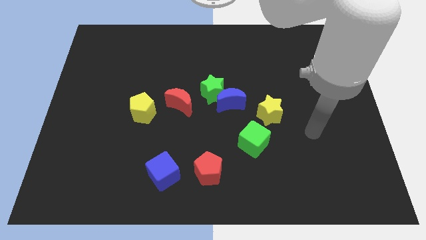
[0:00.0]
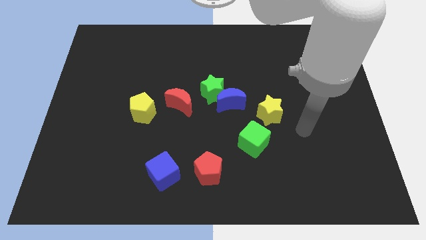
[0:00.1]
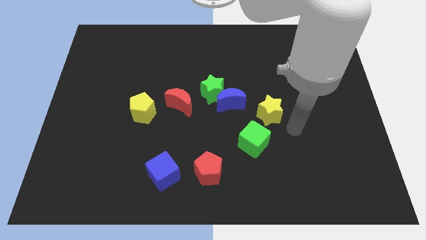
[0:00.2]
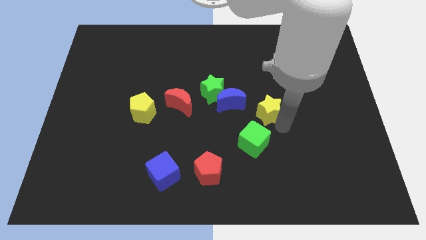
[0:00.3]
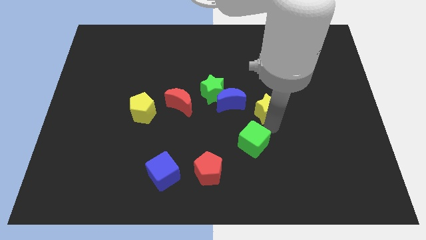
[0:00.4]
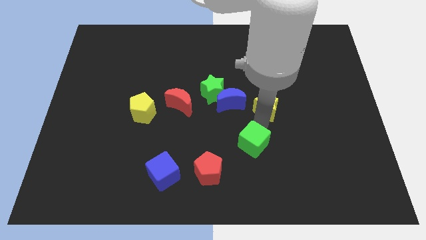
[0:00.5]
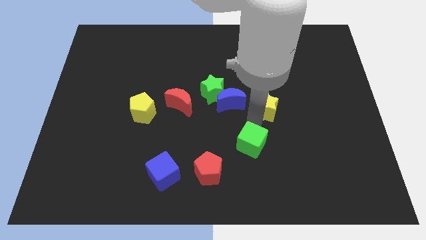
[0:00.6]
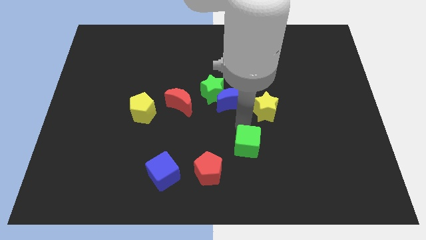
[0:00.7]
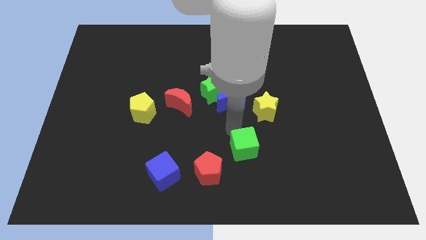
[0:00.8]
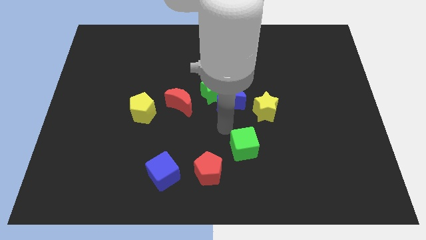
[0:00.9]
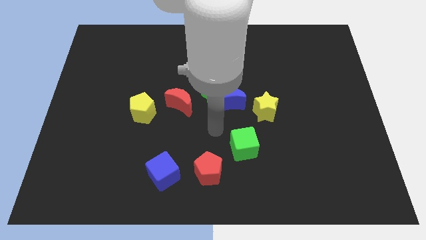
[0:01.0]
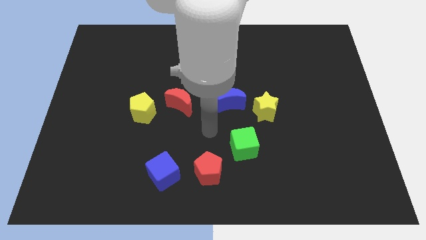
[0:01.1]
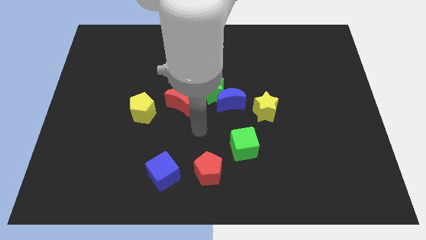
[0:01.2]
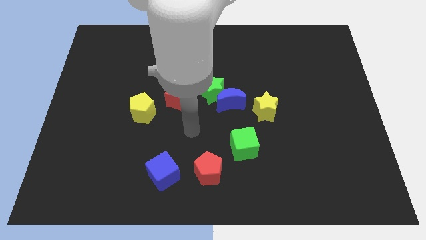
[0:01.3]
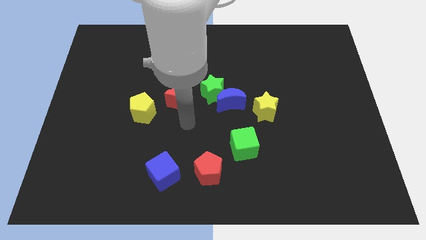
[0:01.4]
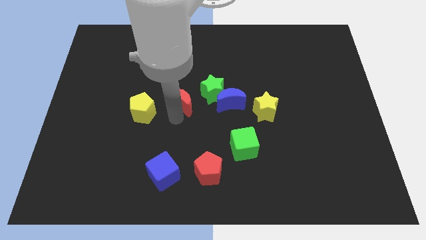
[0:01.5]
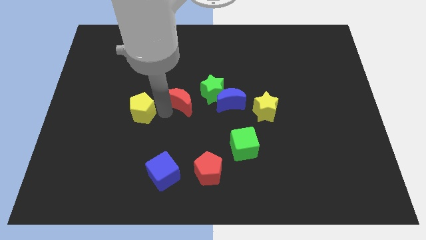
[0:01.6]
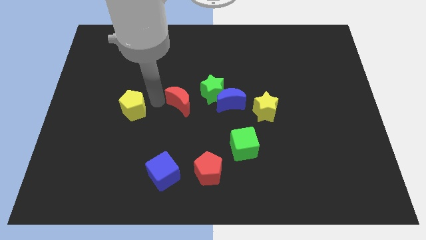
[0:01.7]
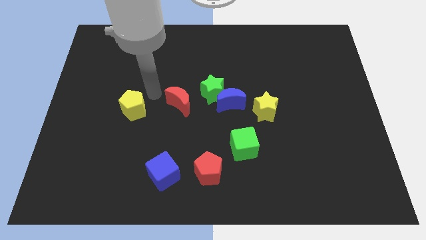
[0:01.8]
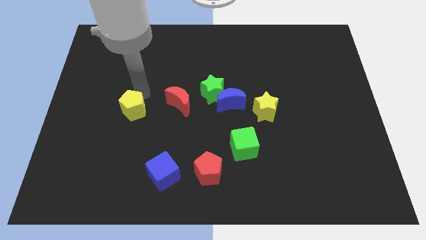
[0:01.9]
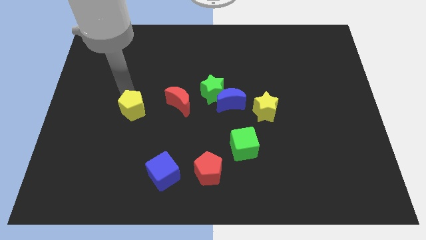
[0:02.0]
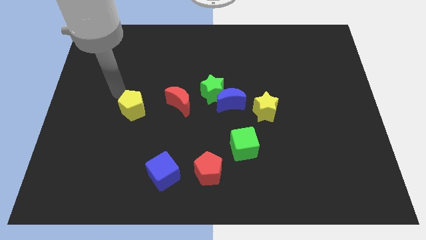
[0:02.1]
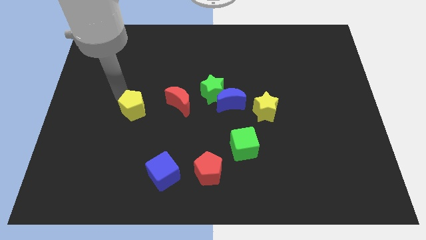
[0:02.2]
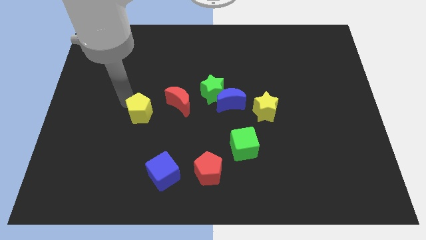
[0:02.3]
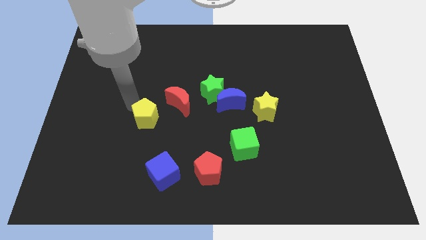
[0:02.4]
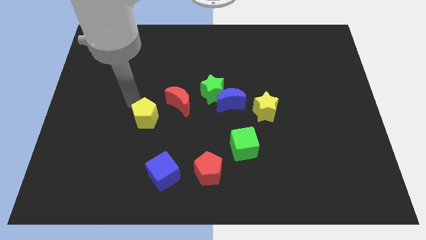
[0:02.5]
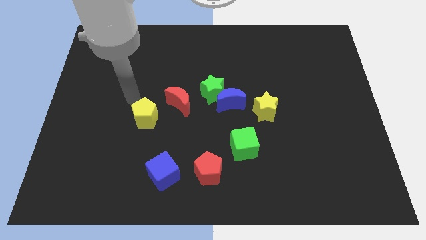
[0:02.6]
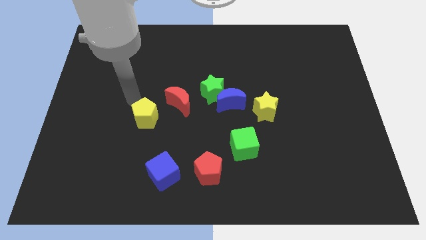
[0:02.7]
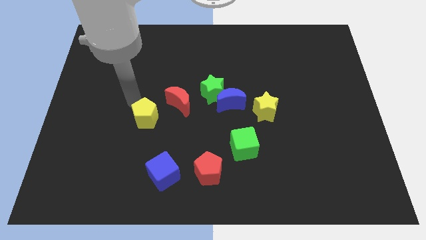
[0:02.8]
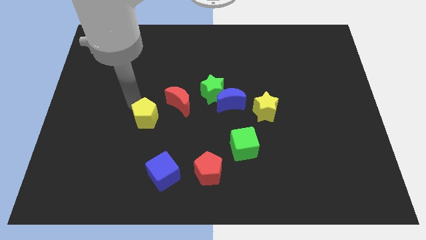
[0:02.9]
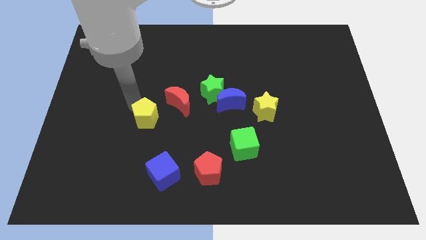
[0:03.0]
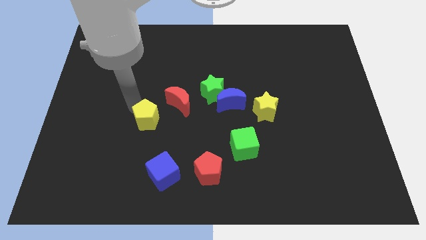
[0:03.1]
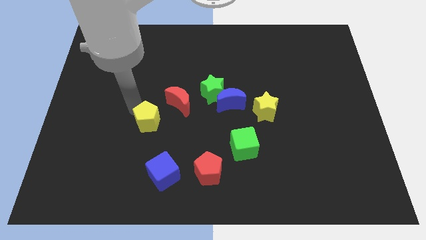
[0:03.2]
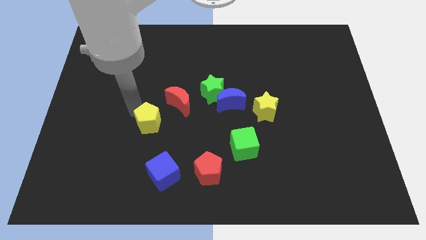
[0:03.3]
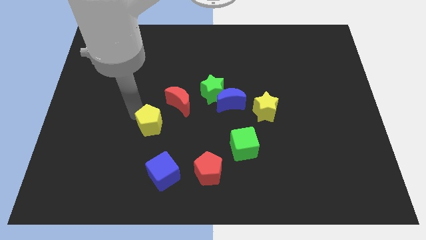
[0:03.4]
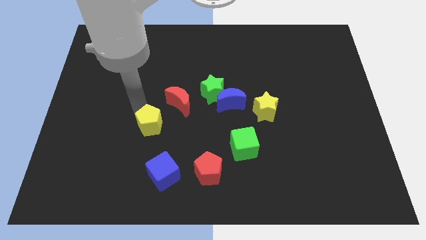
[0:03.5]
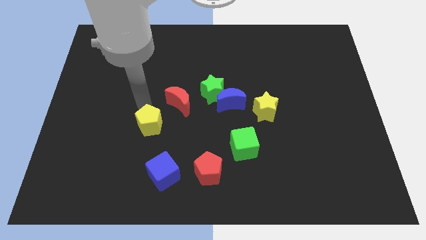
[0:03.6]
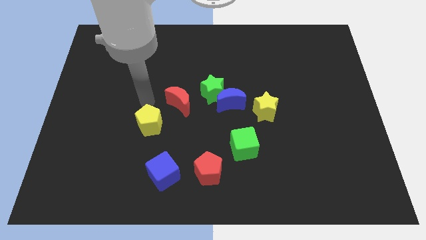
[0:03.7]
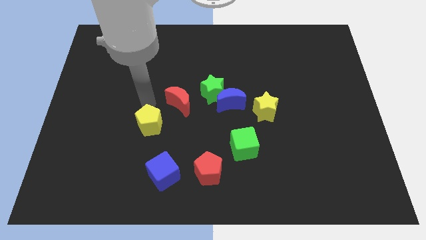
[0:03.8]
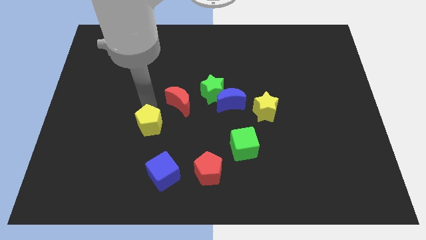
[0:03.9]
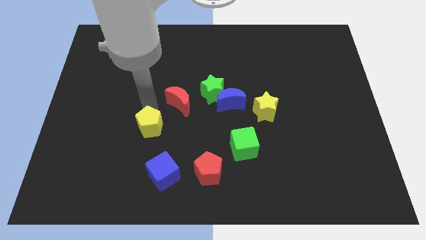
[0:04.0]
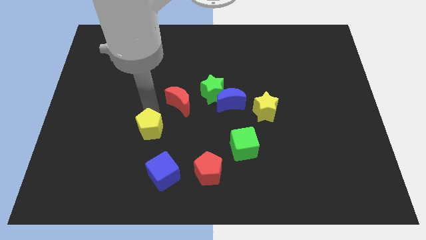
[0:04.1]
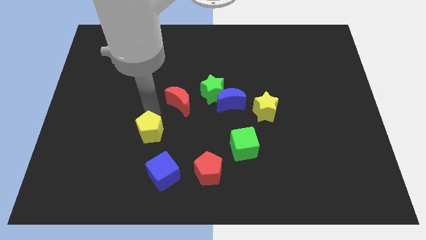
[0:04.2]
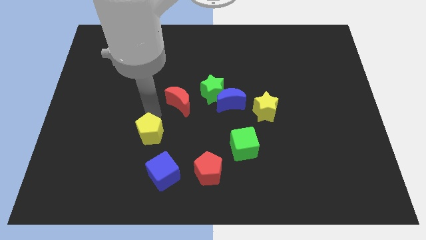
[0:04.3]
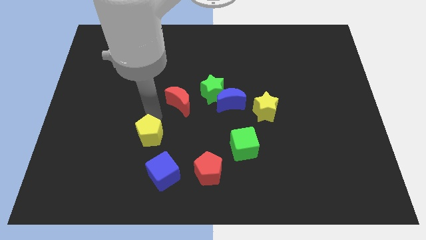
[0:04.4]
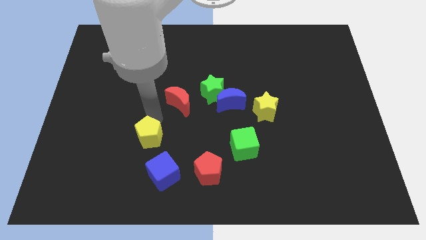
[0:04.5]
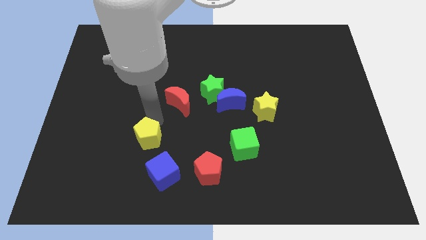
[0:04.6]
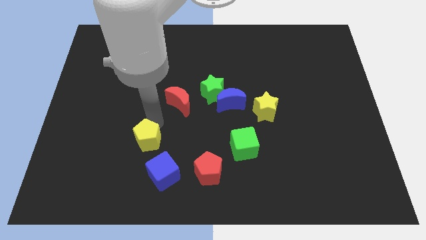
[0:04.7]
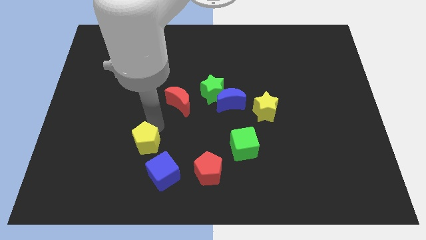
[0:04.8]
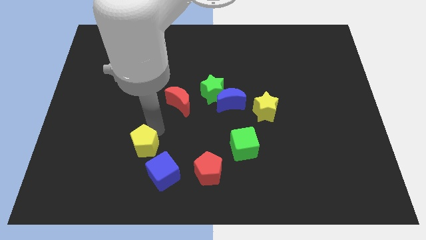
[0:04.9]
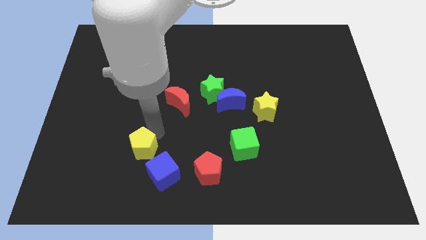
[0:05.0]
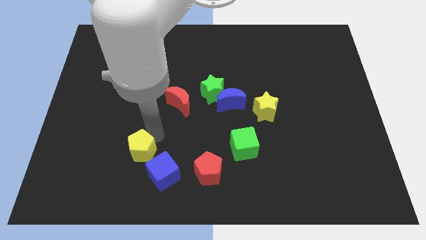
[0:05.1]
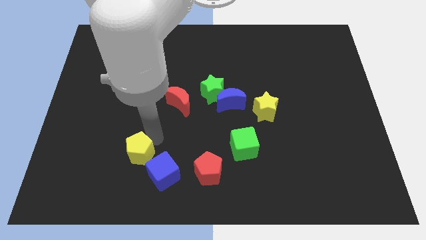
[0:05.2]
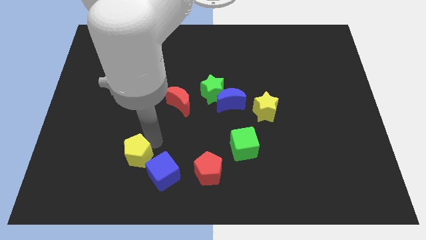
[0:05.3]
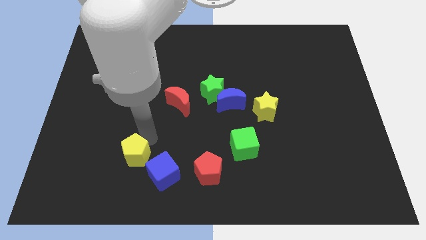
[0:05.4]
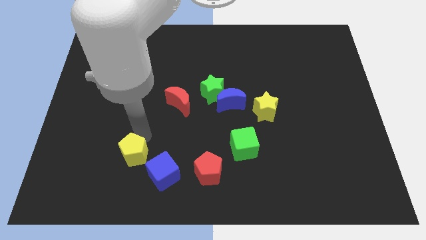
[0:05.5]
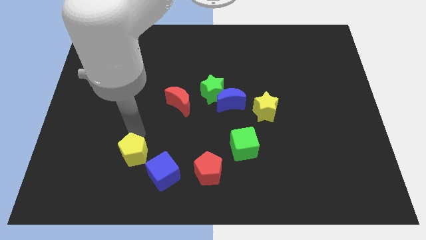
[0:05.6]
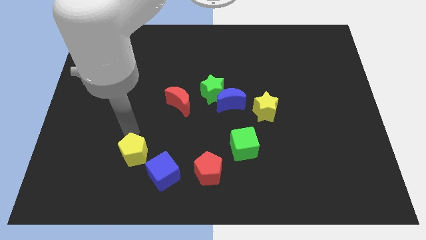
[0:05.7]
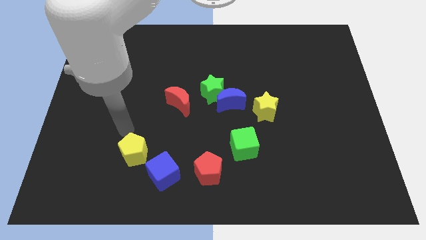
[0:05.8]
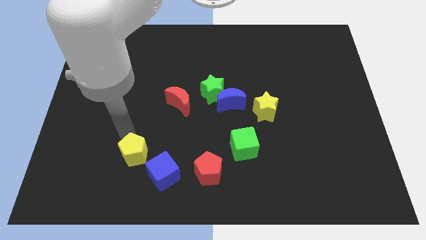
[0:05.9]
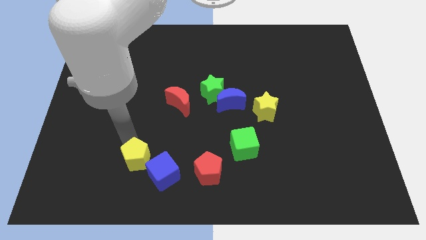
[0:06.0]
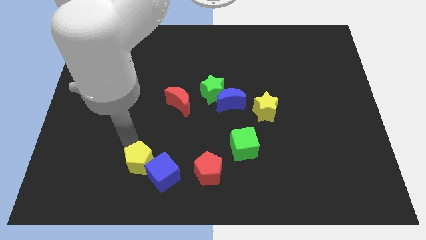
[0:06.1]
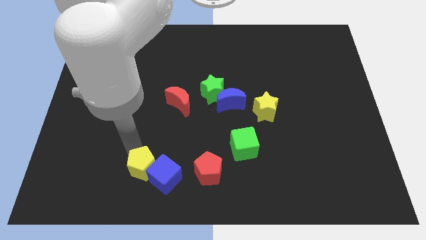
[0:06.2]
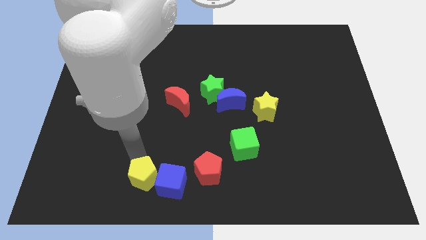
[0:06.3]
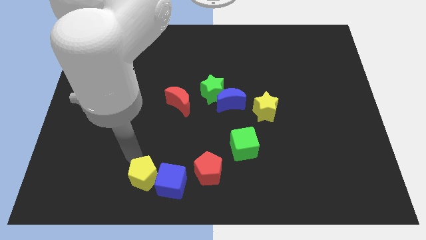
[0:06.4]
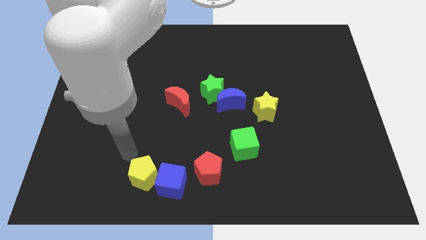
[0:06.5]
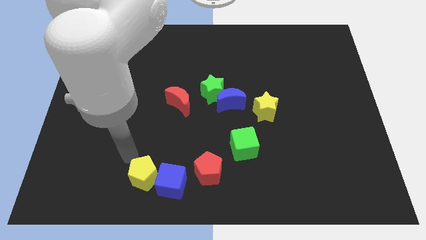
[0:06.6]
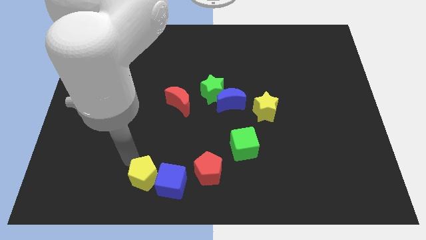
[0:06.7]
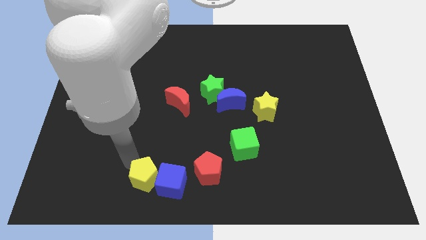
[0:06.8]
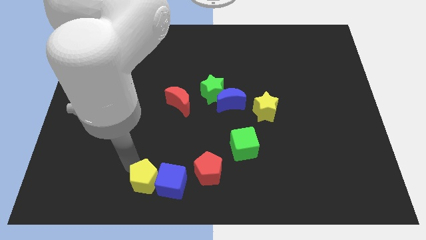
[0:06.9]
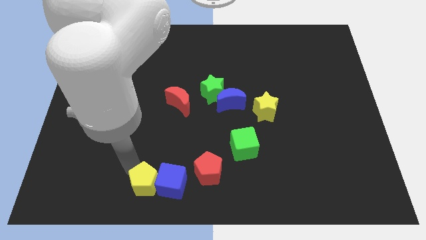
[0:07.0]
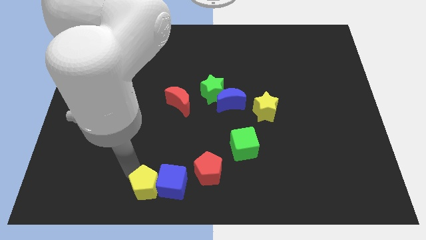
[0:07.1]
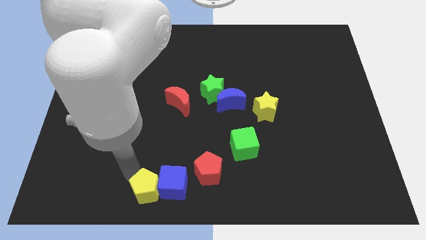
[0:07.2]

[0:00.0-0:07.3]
slide the yellow pentagon to the bottom
